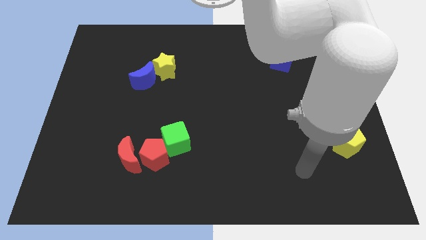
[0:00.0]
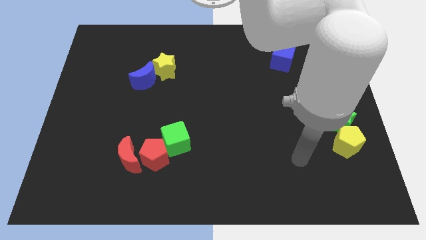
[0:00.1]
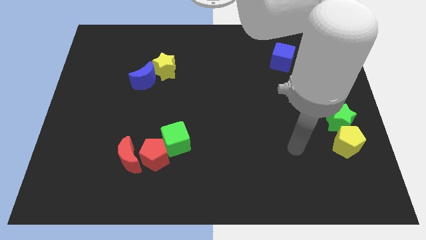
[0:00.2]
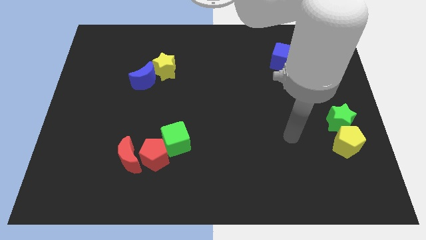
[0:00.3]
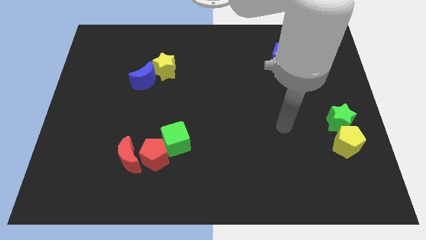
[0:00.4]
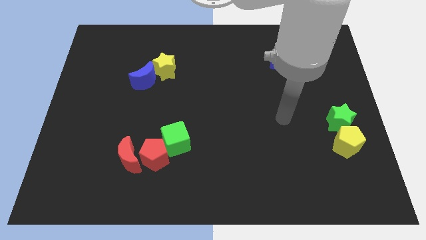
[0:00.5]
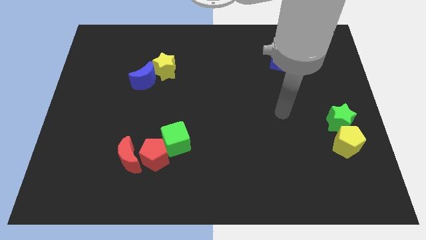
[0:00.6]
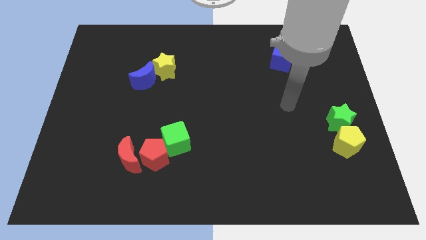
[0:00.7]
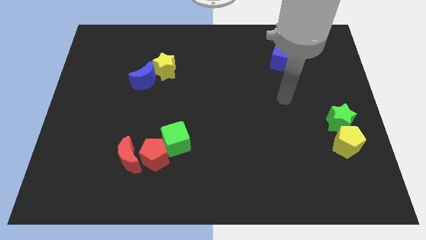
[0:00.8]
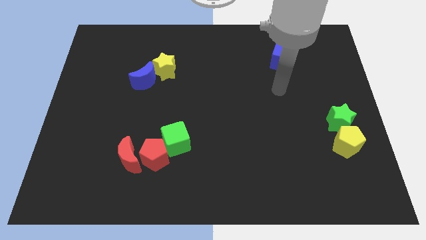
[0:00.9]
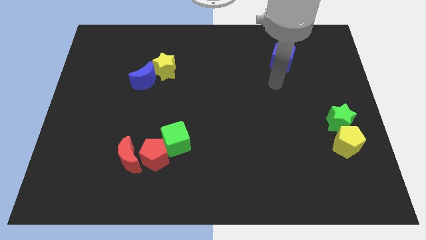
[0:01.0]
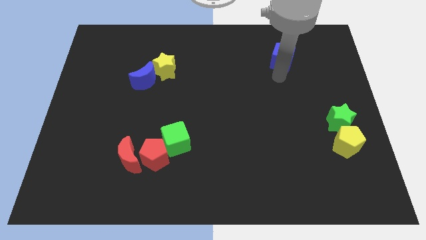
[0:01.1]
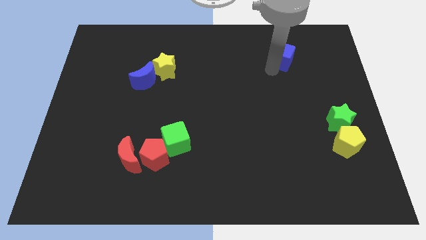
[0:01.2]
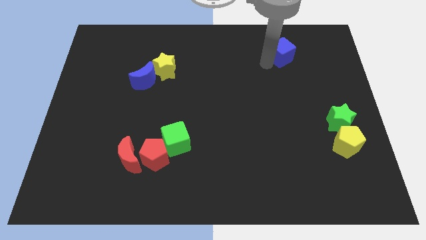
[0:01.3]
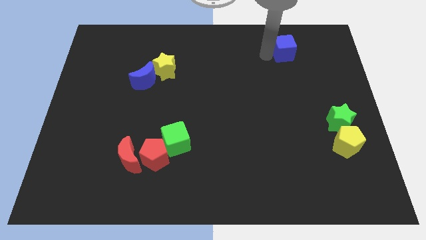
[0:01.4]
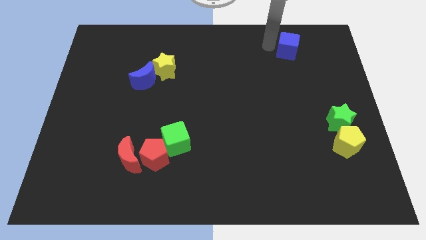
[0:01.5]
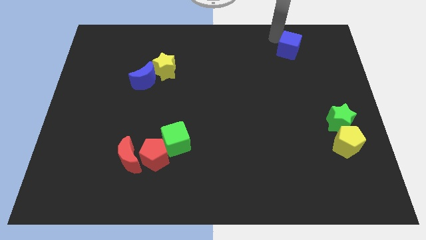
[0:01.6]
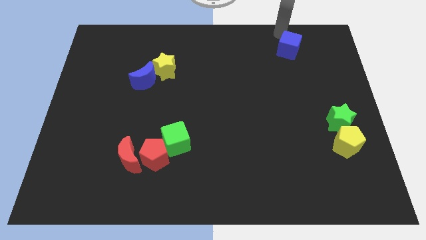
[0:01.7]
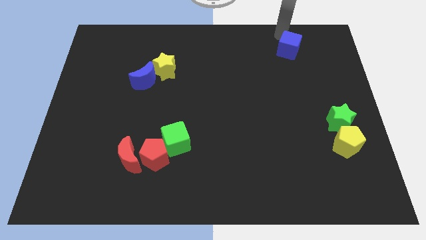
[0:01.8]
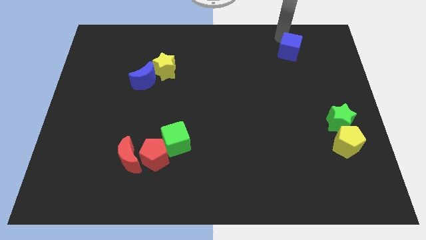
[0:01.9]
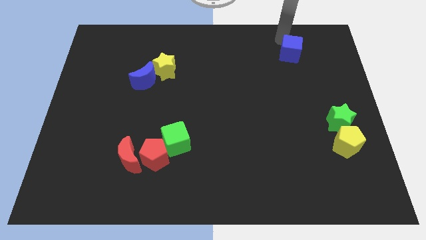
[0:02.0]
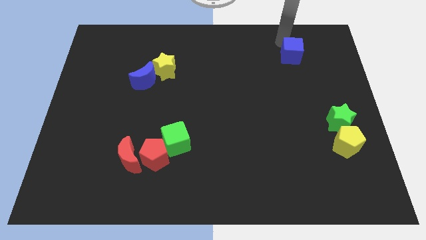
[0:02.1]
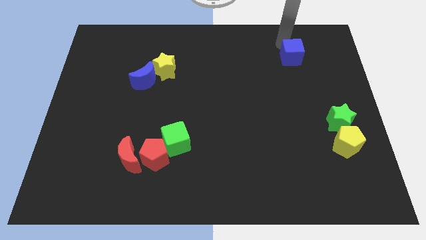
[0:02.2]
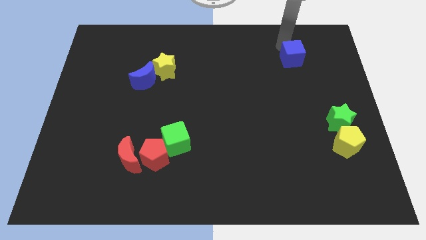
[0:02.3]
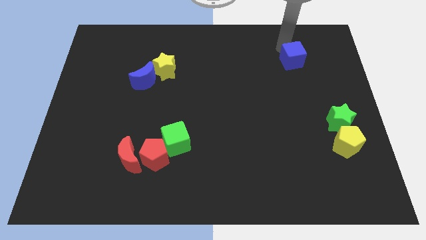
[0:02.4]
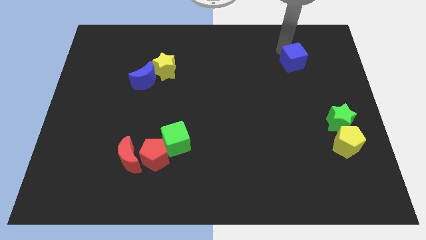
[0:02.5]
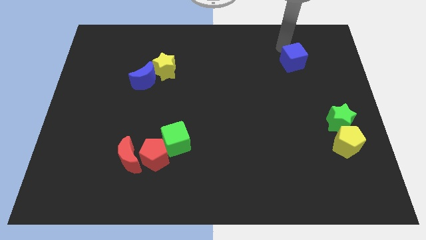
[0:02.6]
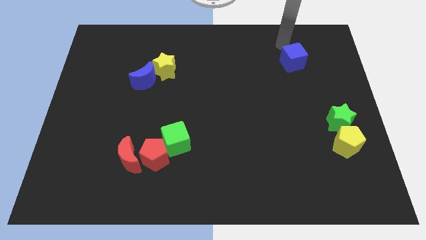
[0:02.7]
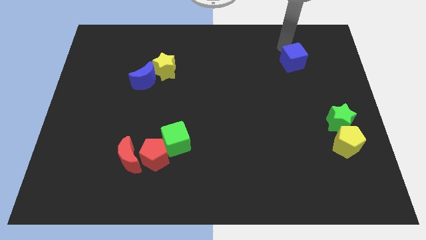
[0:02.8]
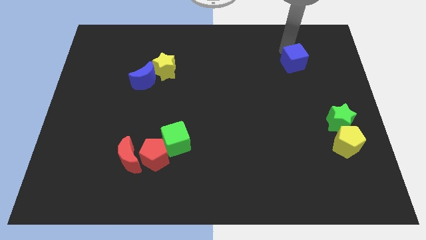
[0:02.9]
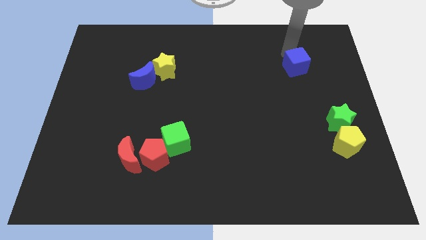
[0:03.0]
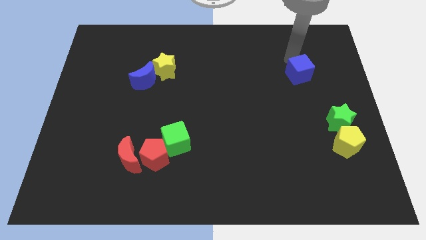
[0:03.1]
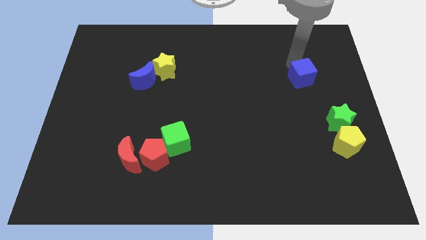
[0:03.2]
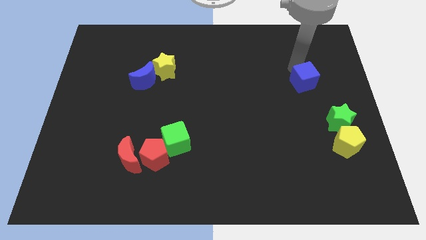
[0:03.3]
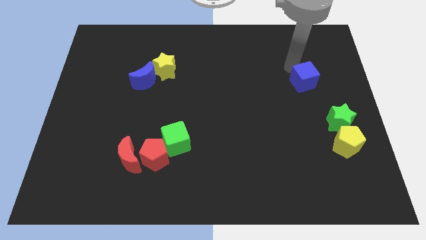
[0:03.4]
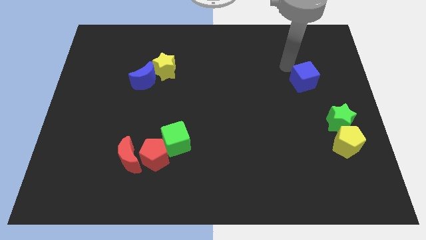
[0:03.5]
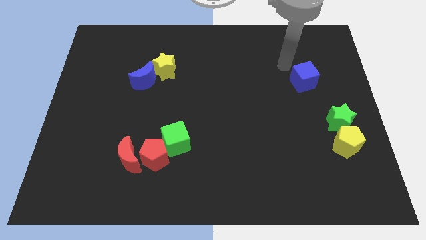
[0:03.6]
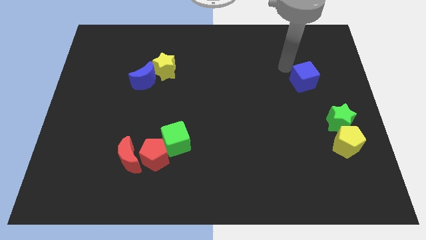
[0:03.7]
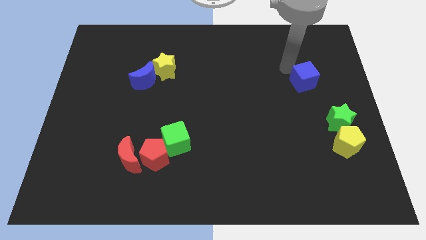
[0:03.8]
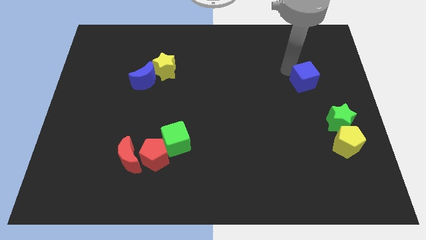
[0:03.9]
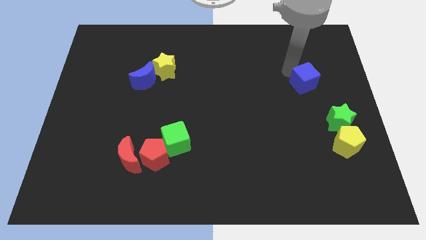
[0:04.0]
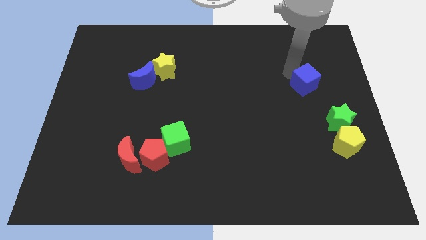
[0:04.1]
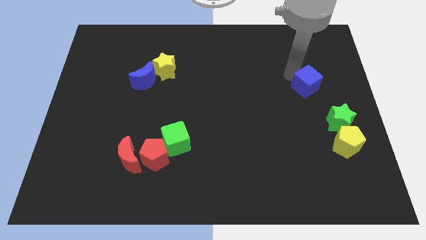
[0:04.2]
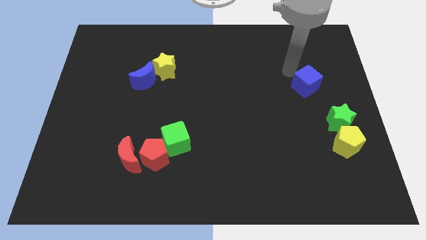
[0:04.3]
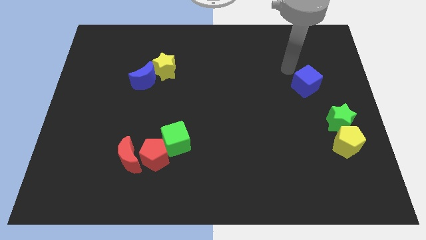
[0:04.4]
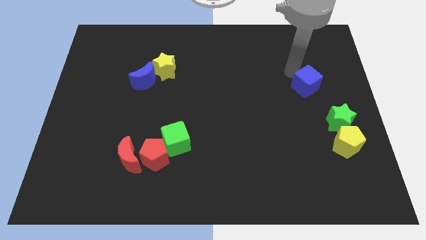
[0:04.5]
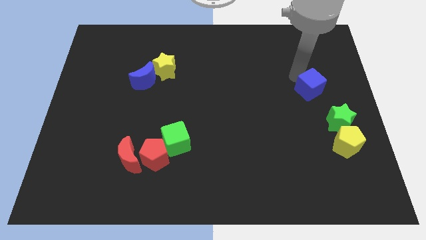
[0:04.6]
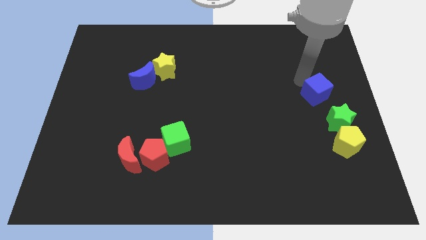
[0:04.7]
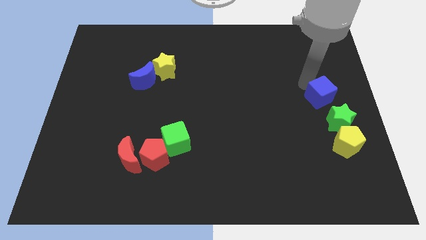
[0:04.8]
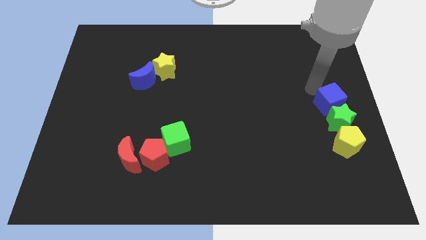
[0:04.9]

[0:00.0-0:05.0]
put the blue cube to the green star

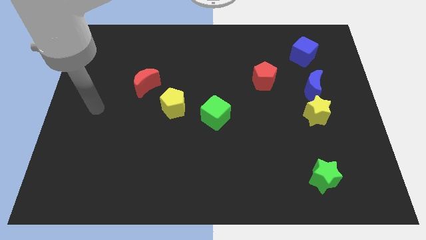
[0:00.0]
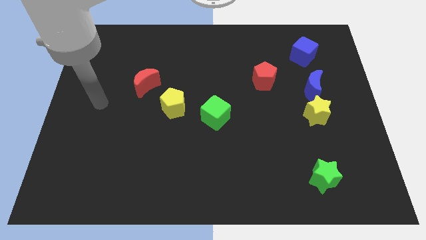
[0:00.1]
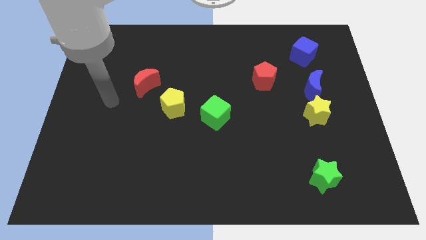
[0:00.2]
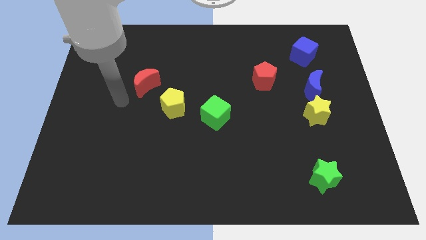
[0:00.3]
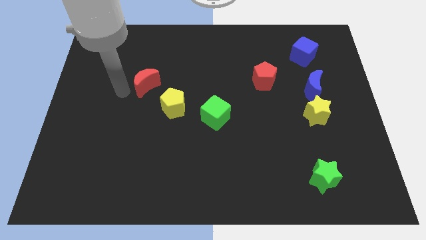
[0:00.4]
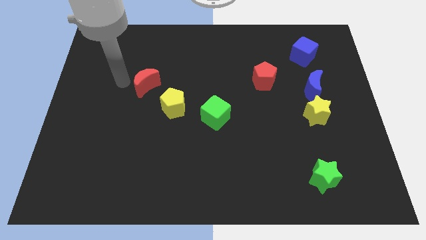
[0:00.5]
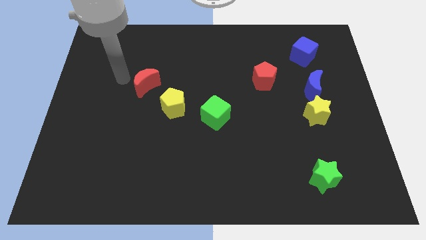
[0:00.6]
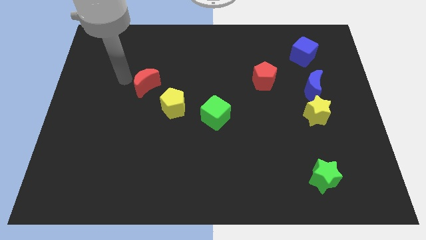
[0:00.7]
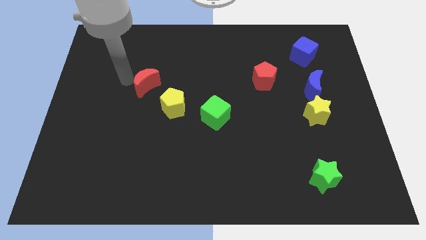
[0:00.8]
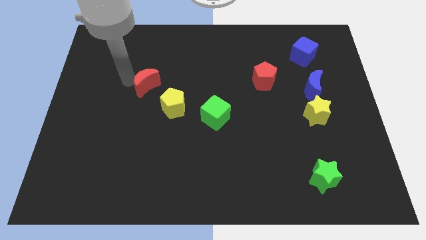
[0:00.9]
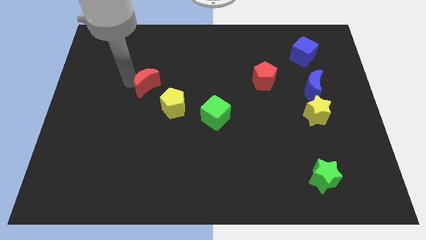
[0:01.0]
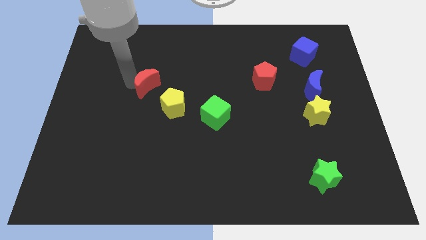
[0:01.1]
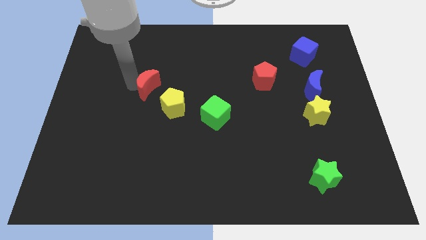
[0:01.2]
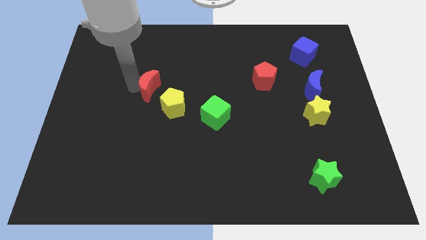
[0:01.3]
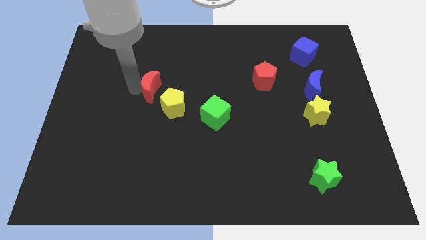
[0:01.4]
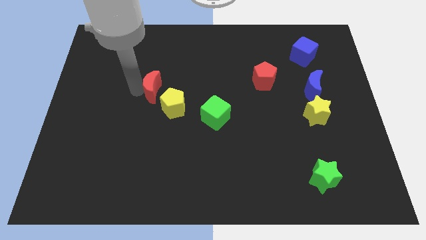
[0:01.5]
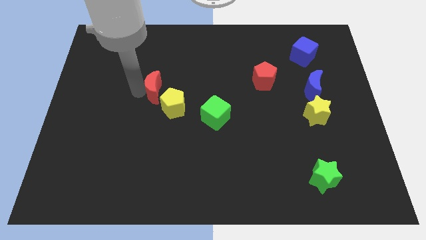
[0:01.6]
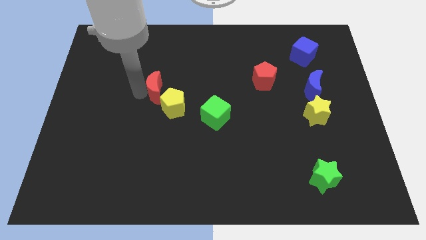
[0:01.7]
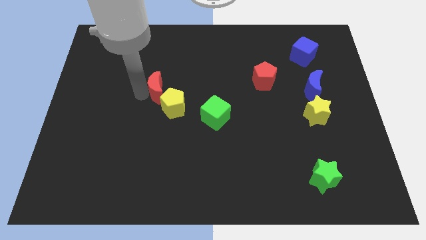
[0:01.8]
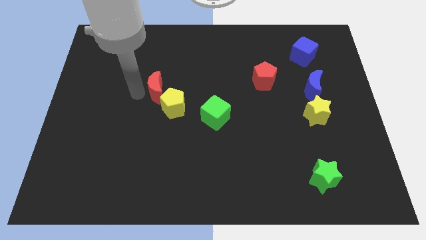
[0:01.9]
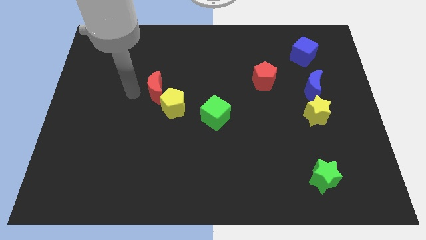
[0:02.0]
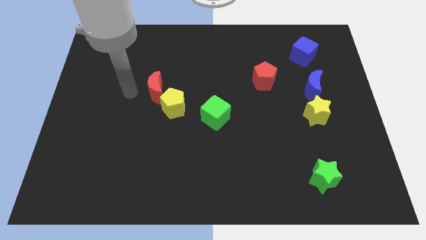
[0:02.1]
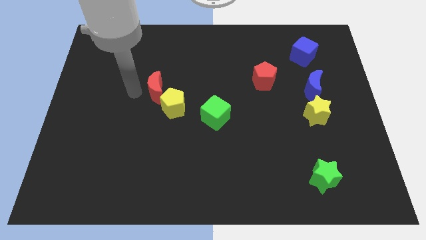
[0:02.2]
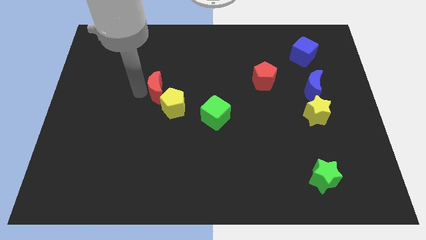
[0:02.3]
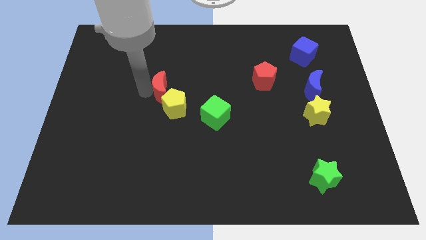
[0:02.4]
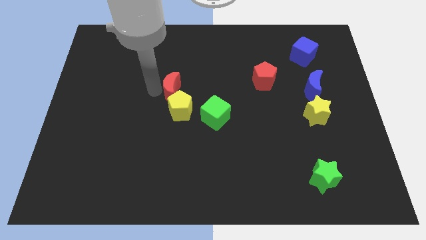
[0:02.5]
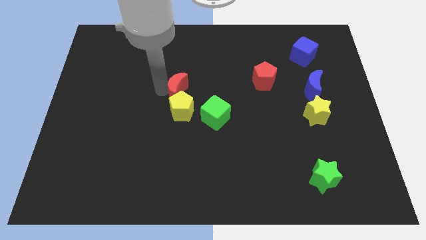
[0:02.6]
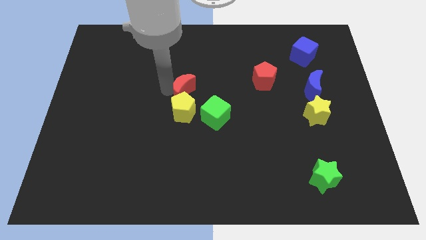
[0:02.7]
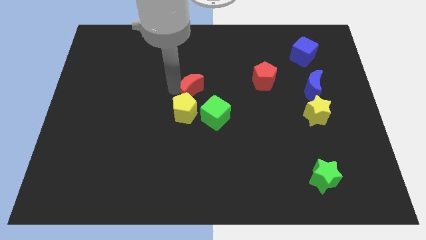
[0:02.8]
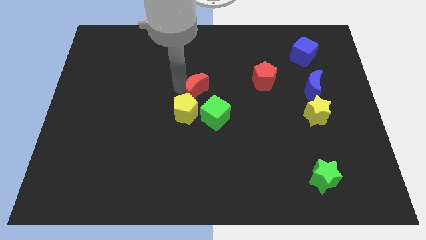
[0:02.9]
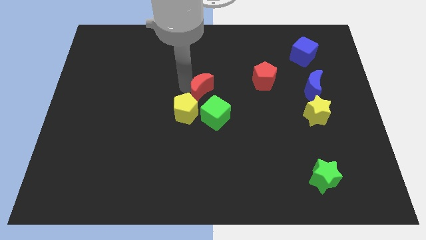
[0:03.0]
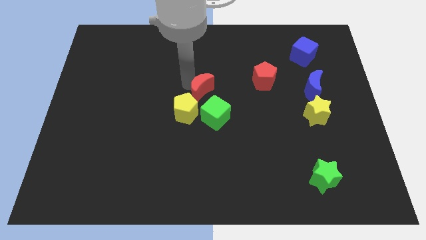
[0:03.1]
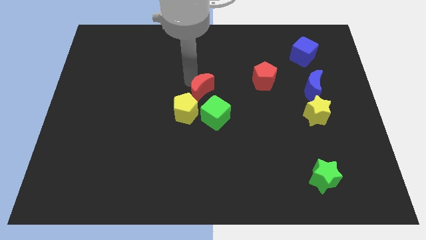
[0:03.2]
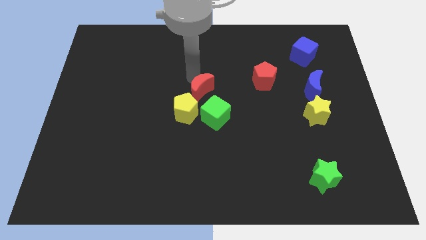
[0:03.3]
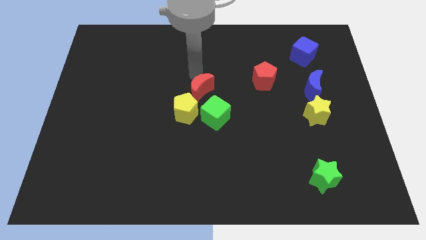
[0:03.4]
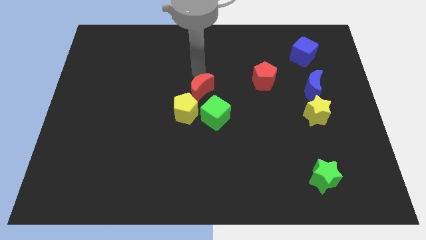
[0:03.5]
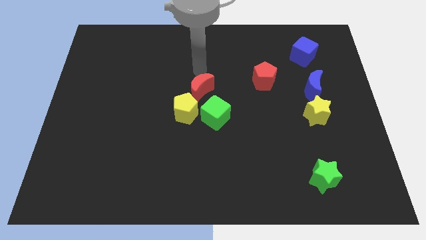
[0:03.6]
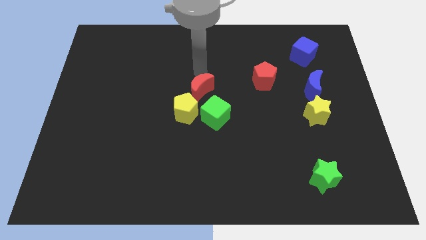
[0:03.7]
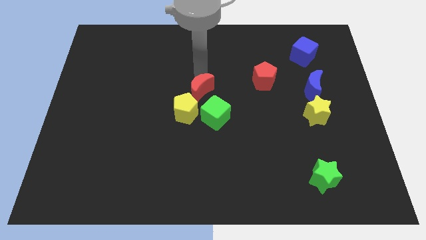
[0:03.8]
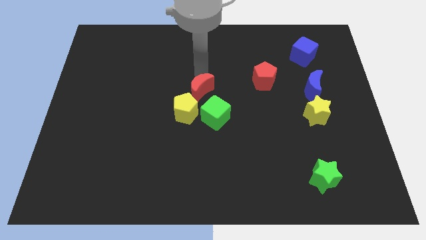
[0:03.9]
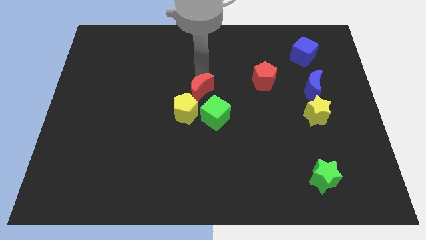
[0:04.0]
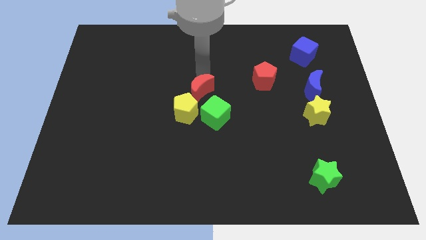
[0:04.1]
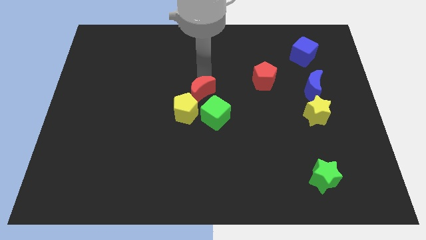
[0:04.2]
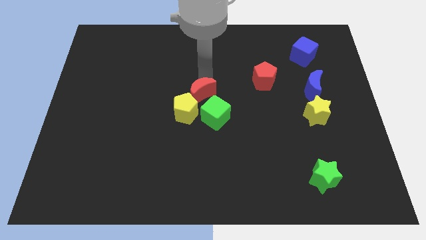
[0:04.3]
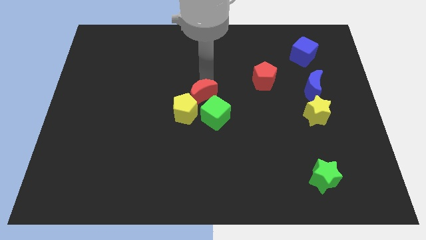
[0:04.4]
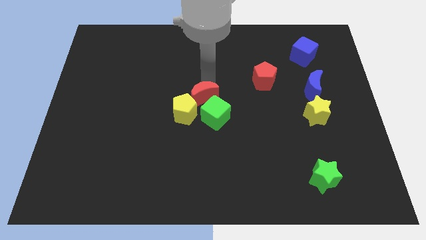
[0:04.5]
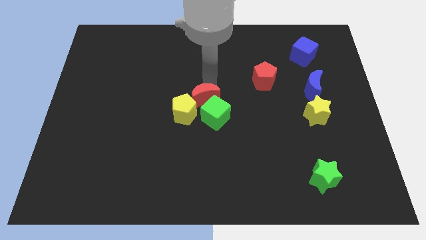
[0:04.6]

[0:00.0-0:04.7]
push the red moon close to the green cube
